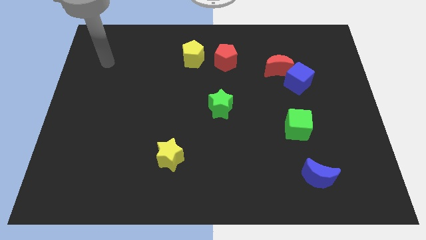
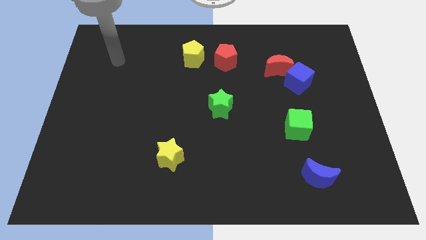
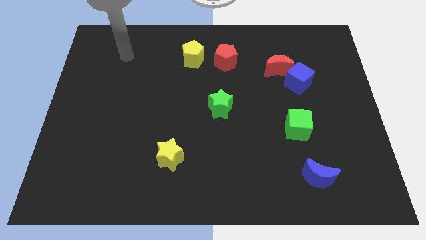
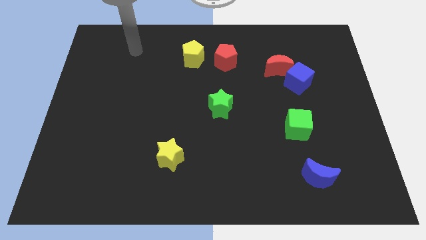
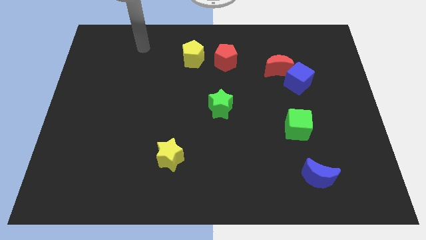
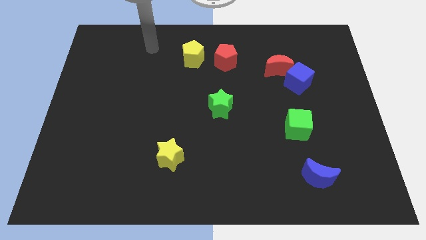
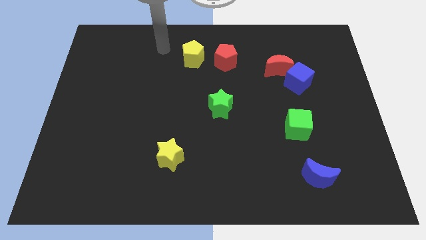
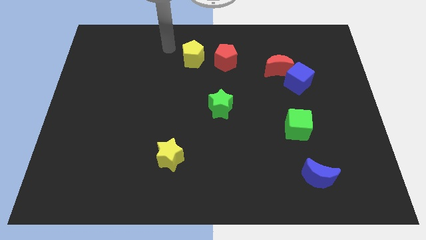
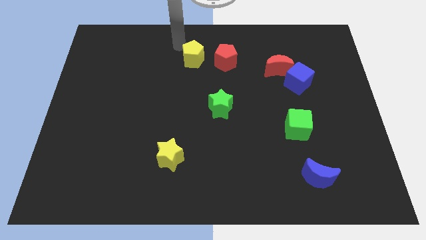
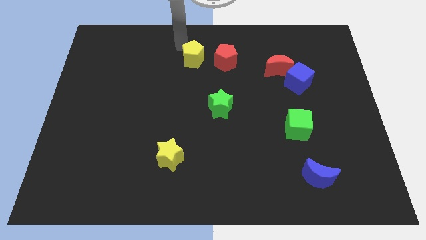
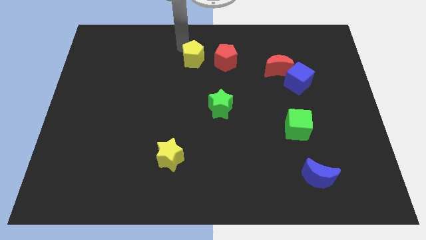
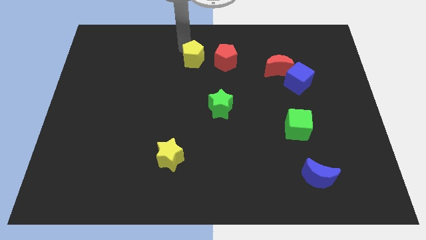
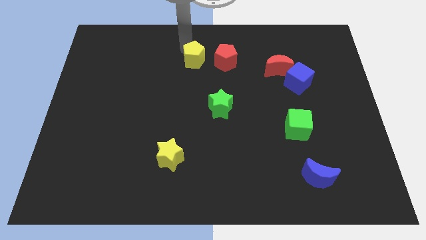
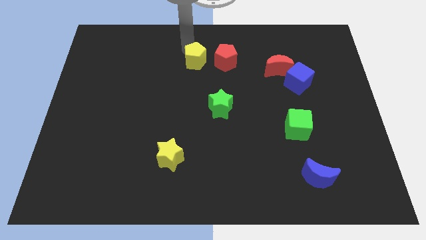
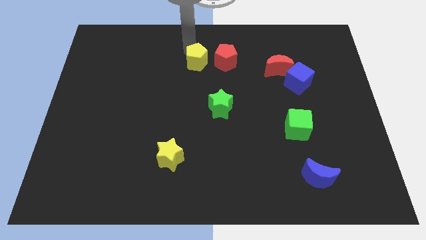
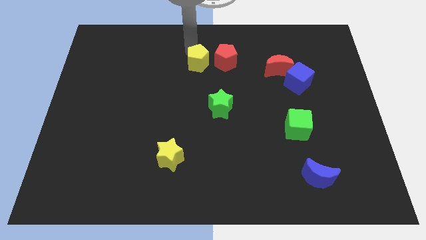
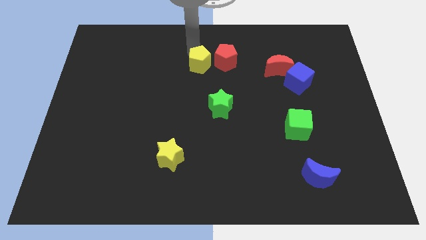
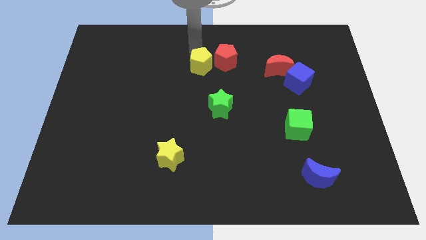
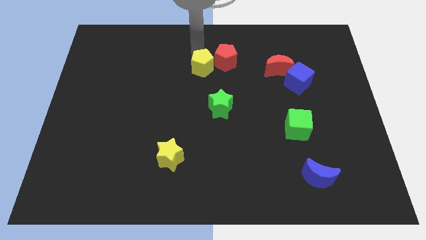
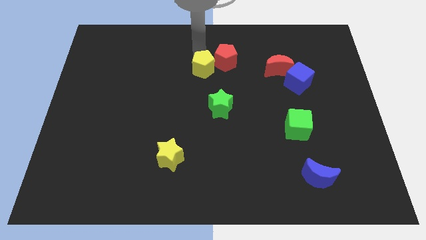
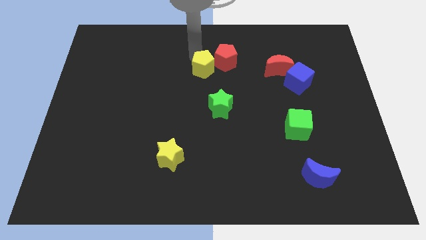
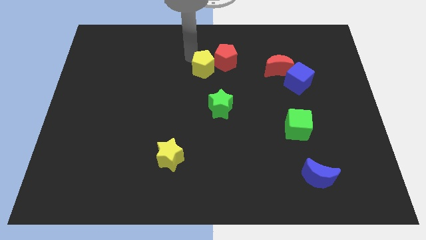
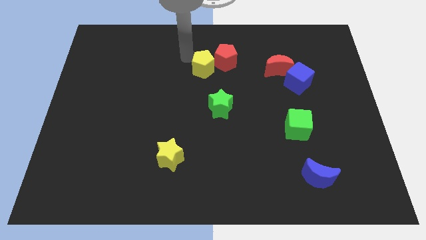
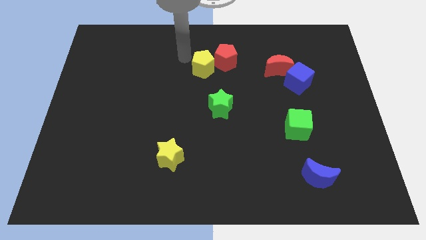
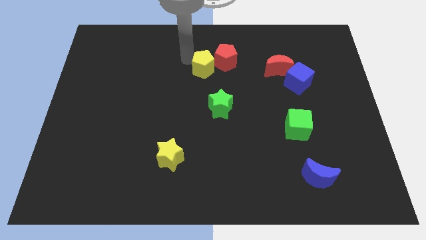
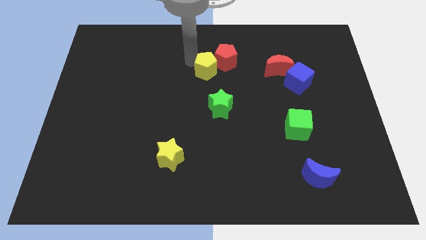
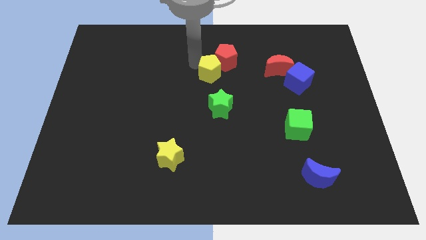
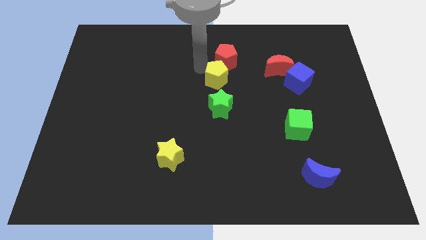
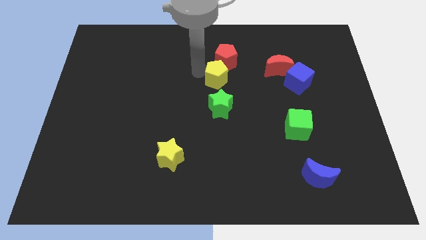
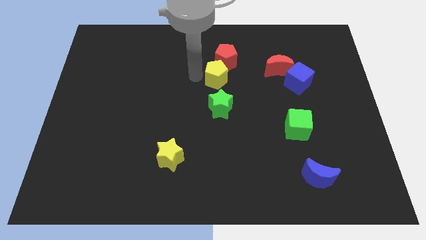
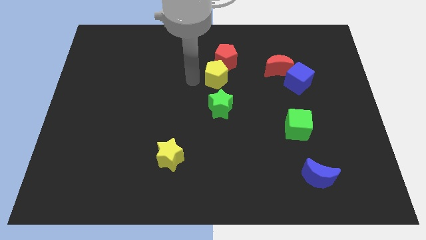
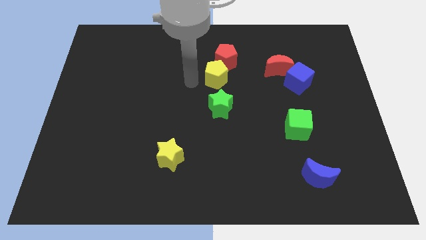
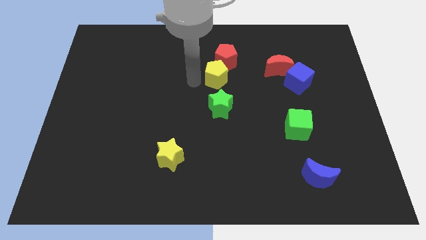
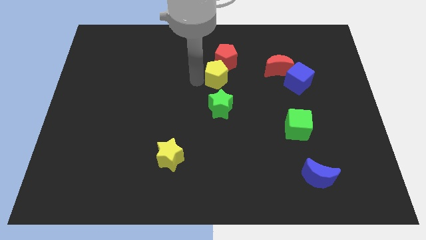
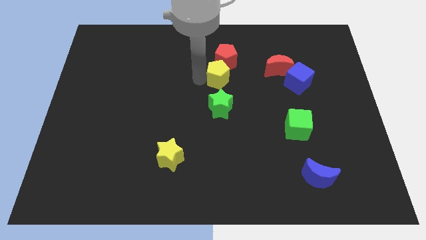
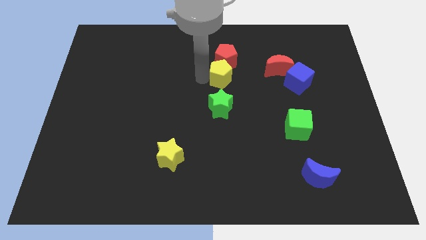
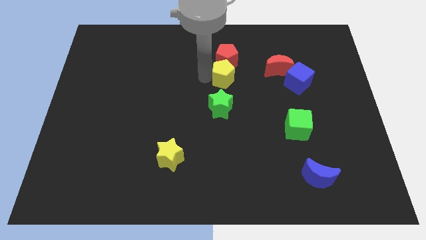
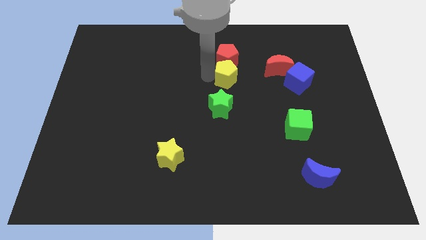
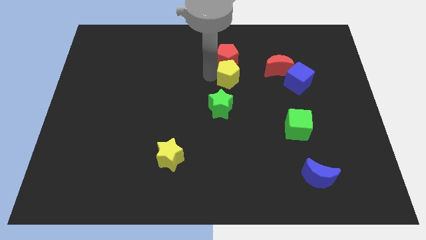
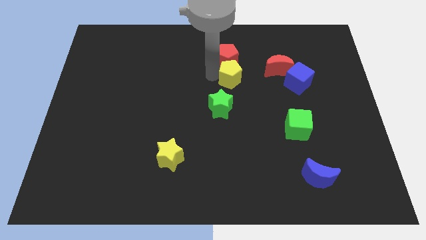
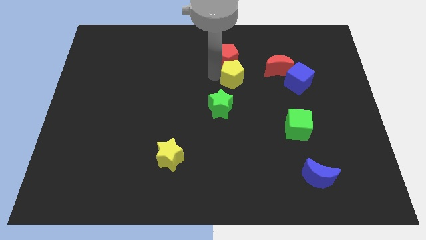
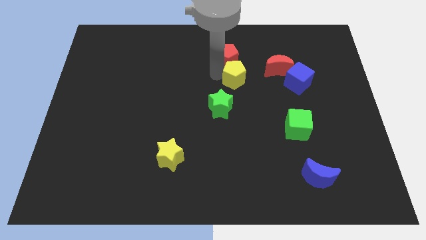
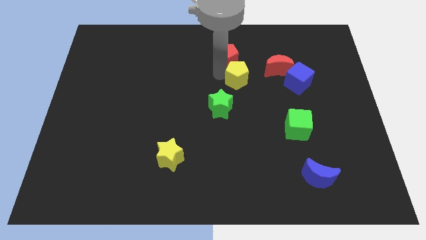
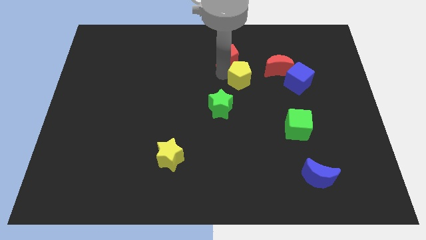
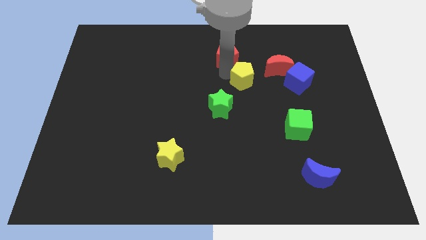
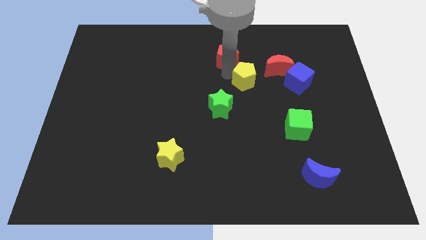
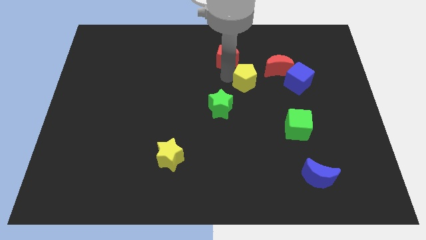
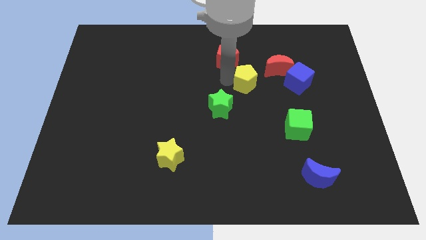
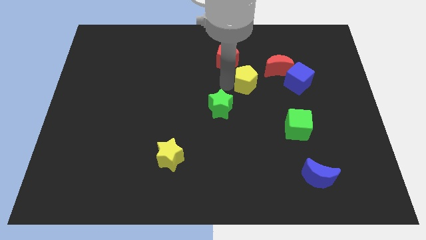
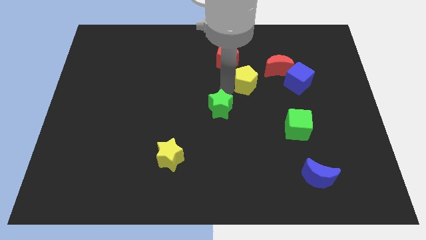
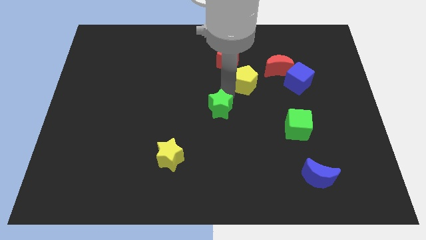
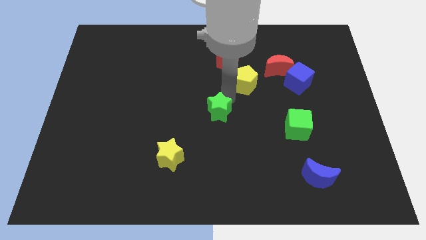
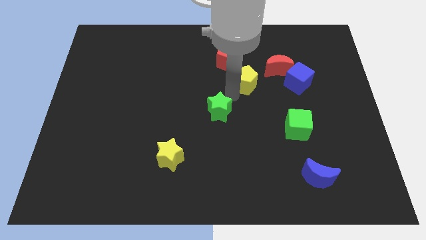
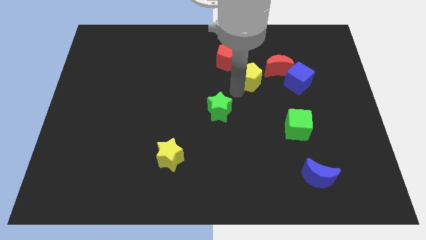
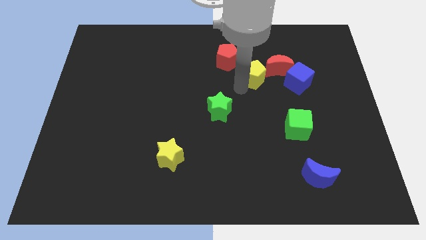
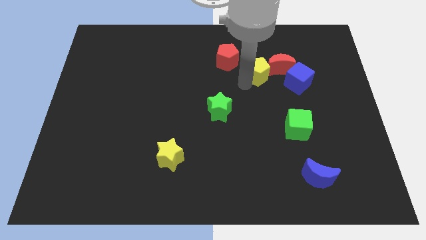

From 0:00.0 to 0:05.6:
put the yellow pentagon next to the red moon

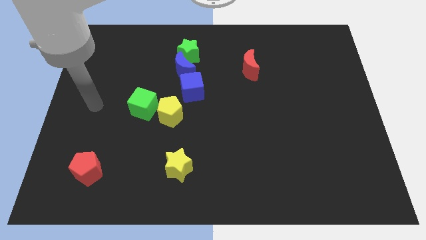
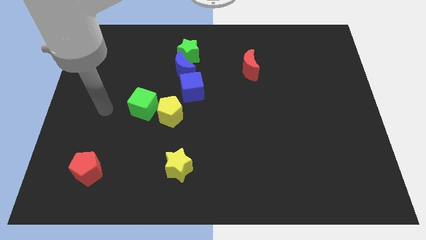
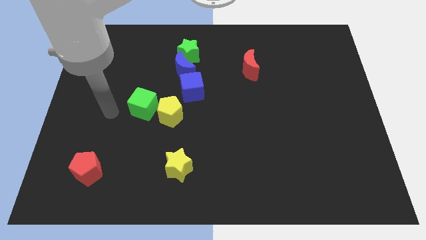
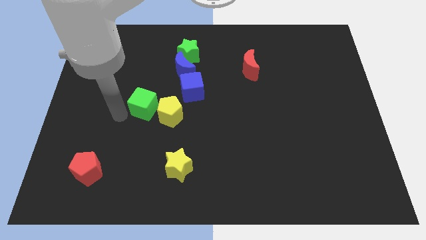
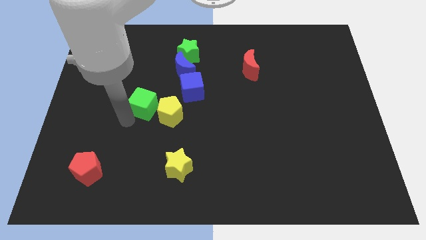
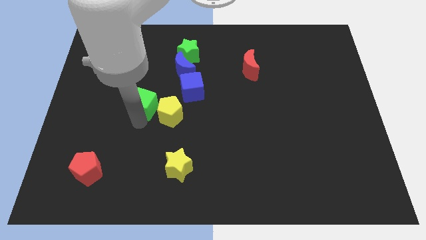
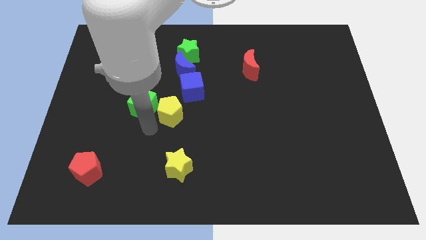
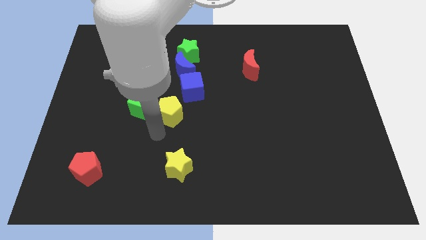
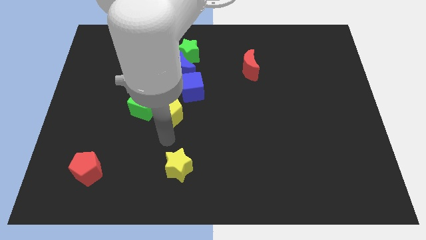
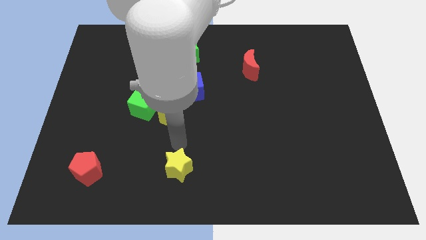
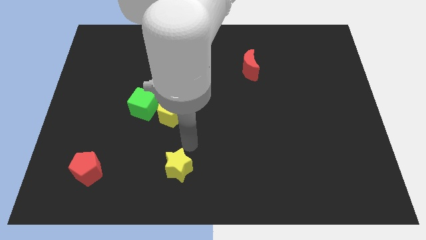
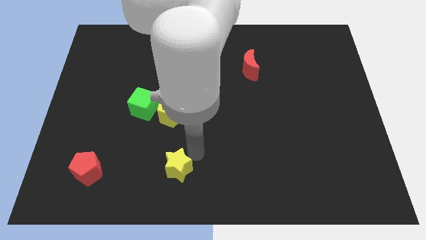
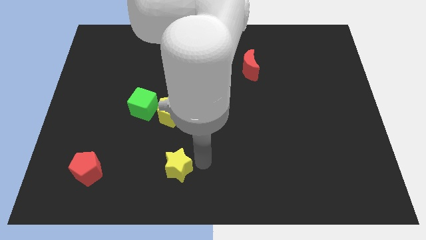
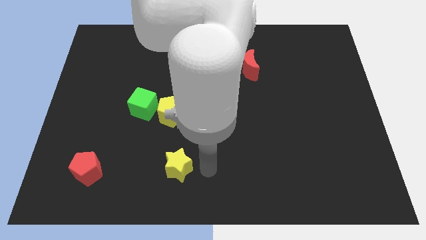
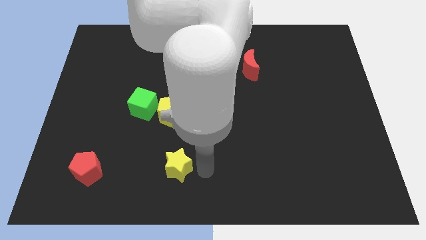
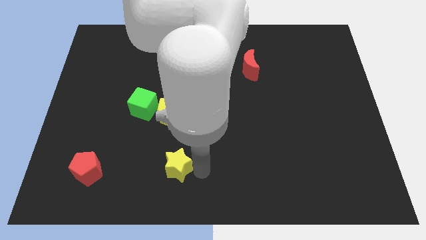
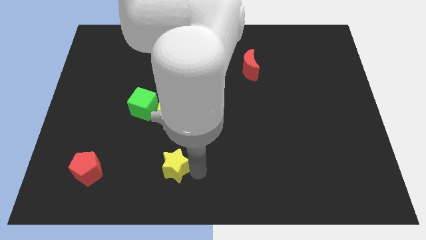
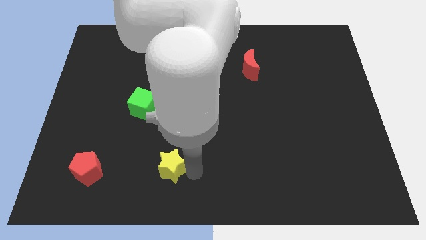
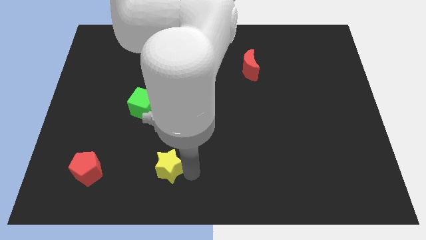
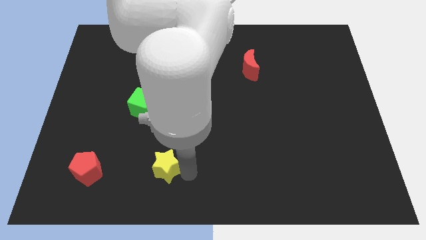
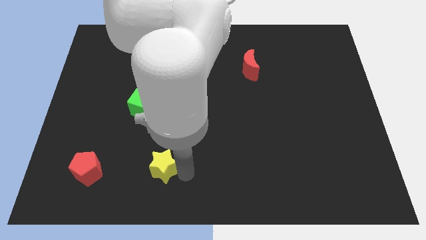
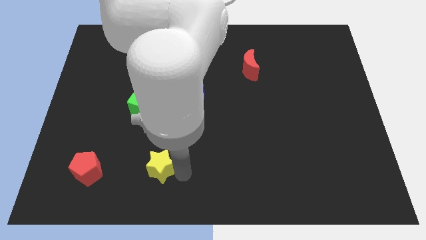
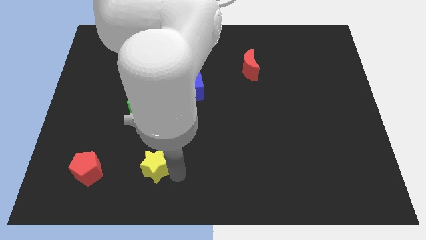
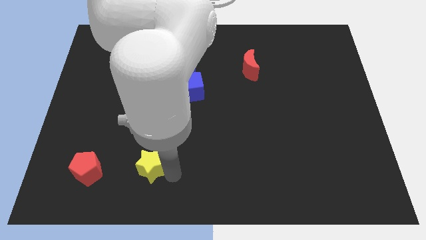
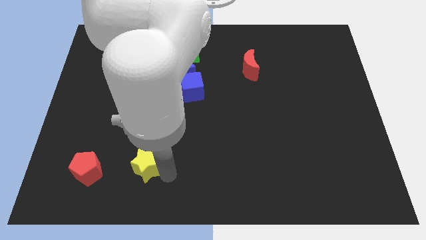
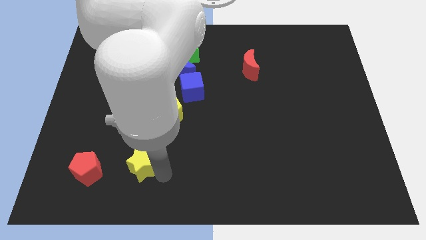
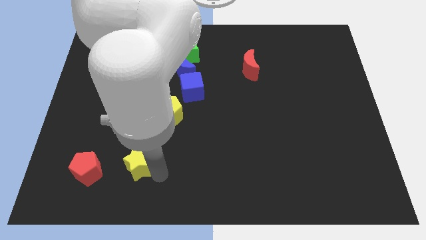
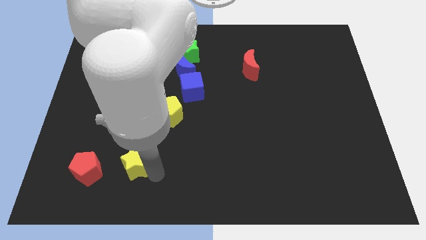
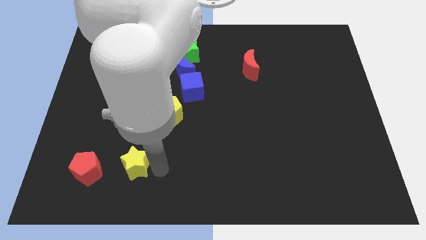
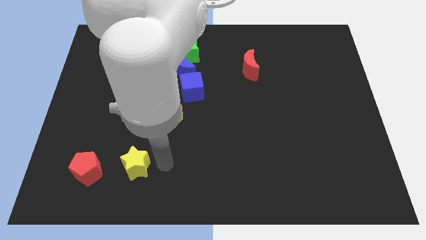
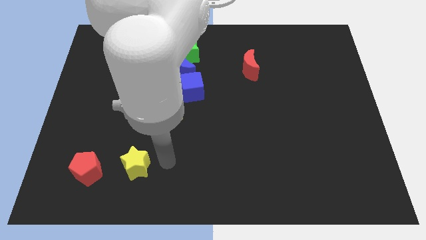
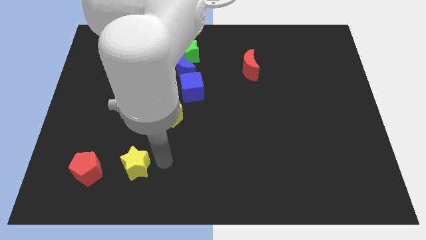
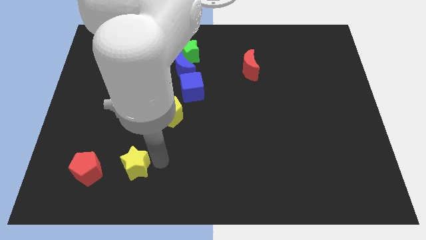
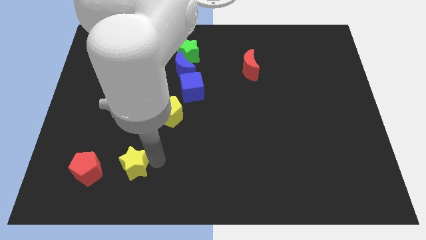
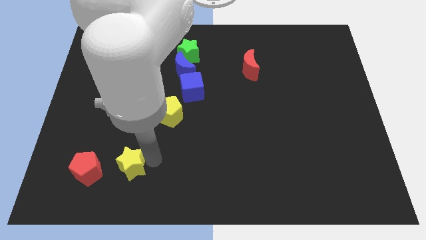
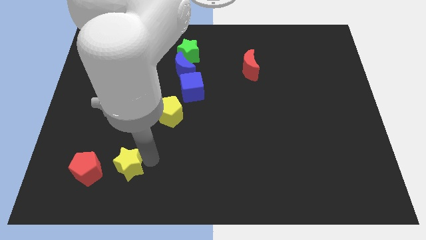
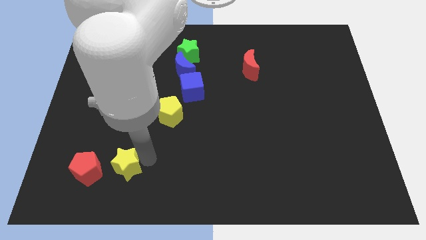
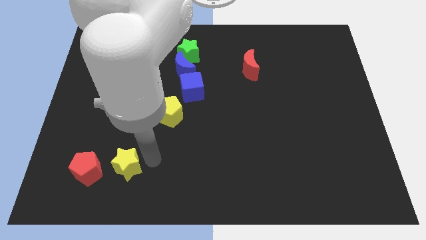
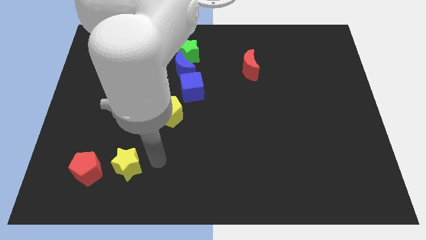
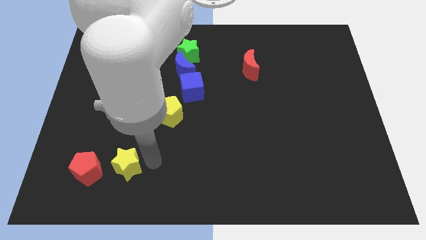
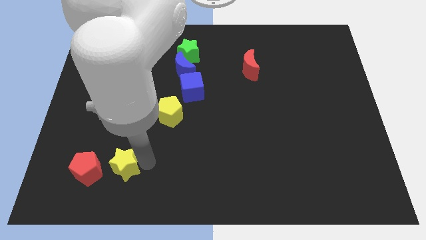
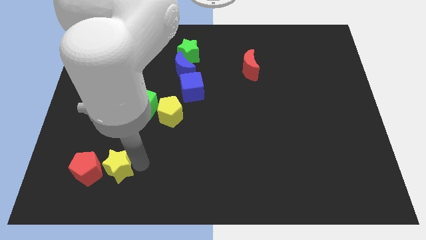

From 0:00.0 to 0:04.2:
push the yellow star next to the red pentagon
